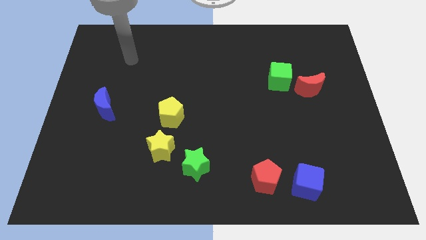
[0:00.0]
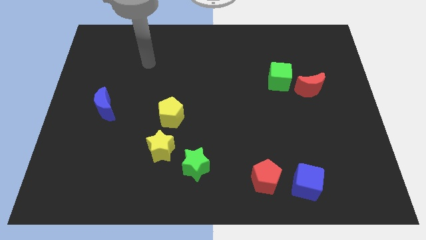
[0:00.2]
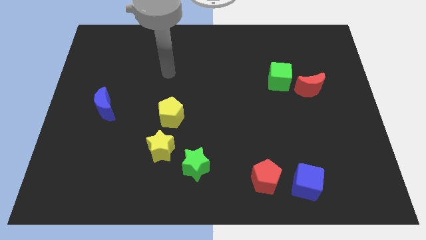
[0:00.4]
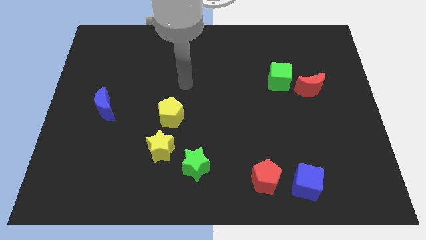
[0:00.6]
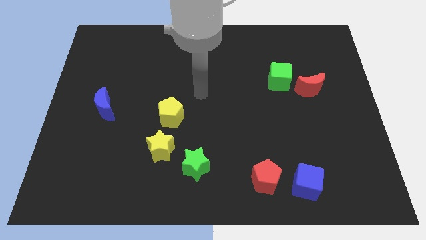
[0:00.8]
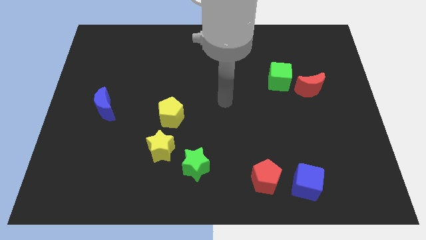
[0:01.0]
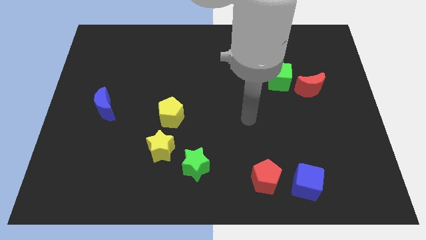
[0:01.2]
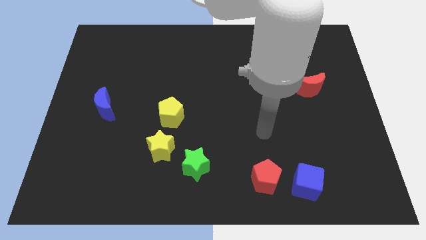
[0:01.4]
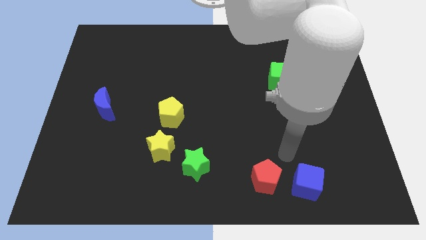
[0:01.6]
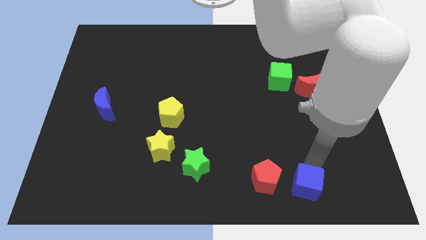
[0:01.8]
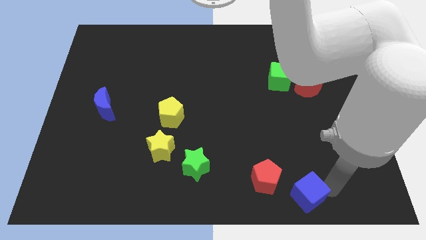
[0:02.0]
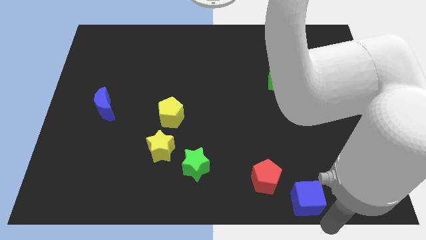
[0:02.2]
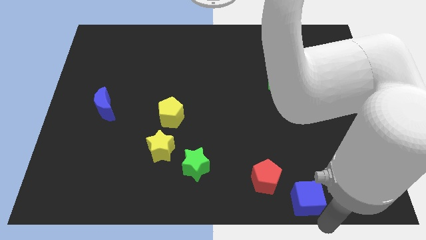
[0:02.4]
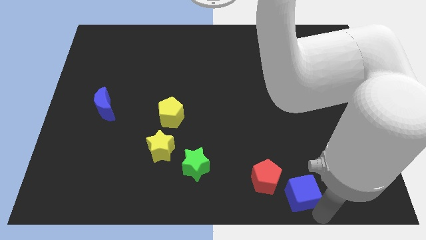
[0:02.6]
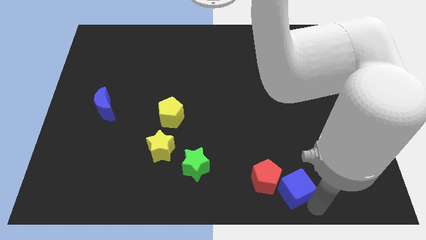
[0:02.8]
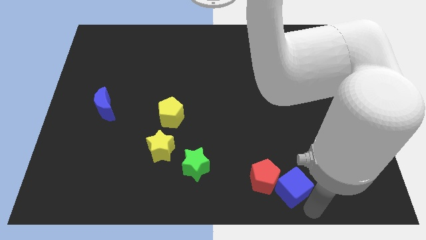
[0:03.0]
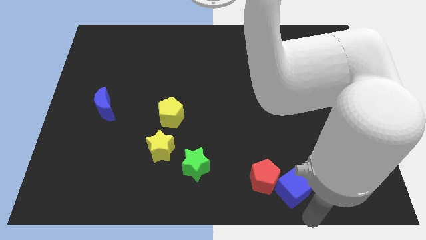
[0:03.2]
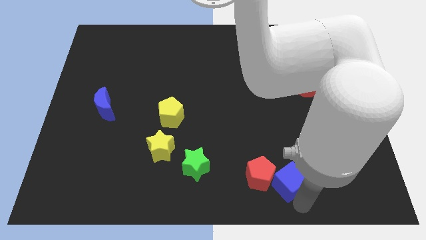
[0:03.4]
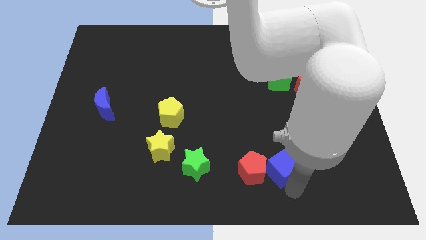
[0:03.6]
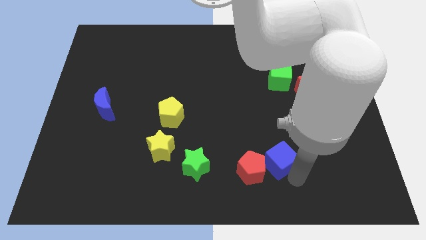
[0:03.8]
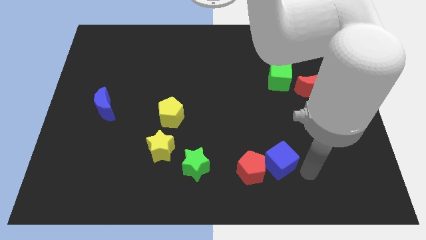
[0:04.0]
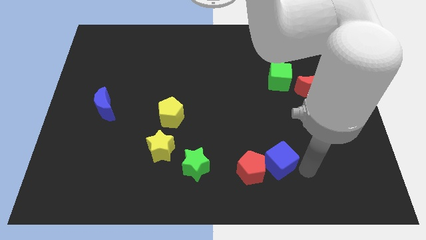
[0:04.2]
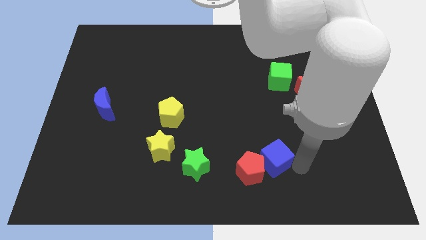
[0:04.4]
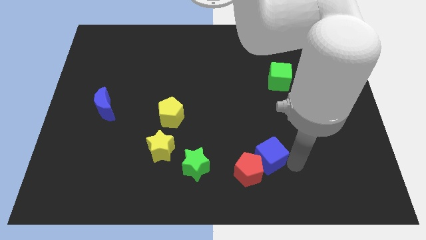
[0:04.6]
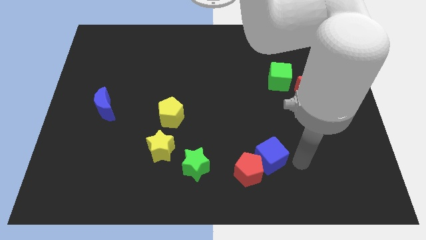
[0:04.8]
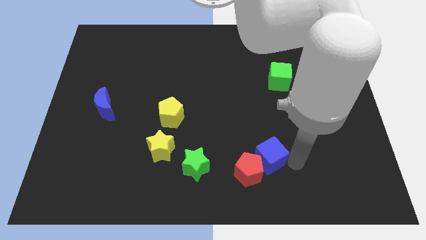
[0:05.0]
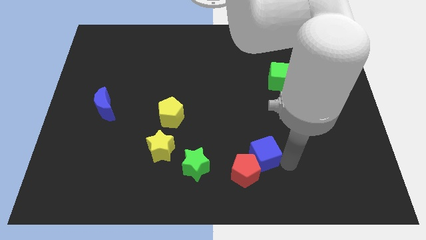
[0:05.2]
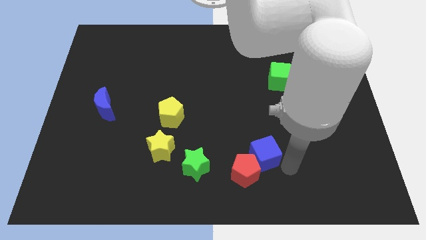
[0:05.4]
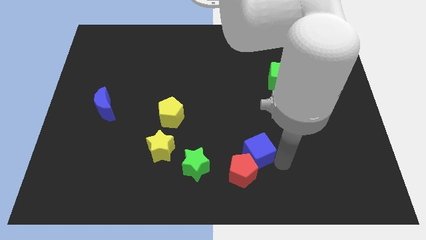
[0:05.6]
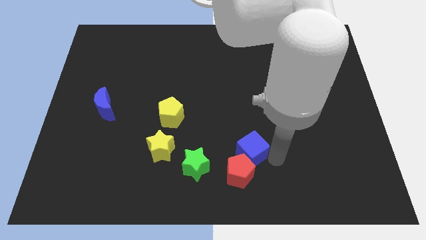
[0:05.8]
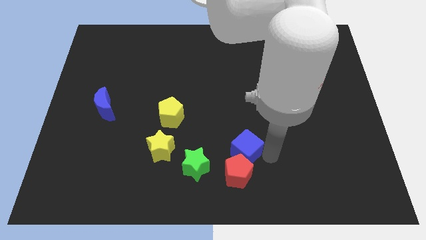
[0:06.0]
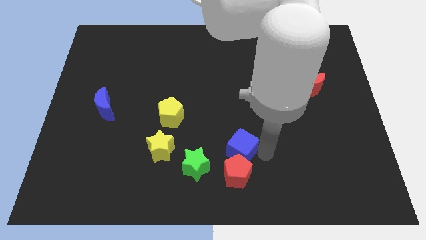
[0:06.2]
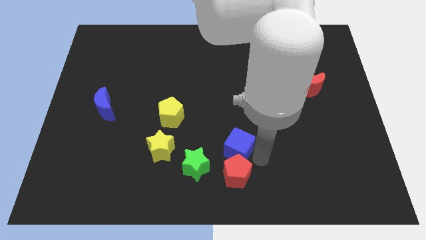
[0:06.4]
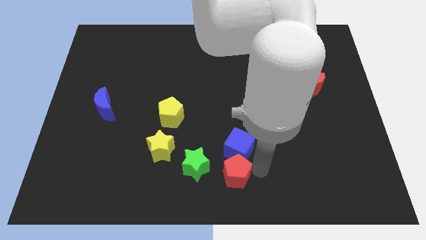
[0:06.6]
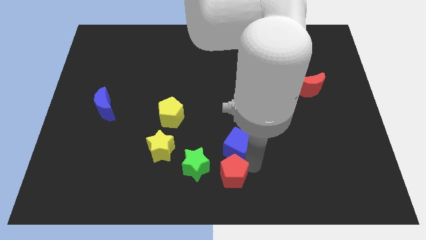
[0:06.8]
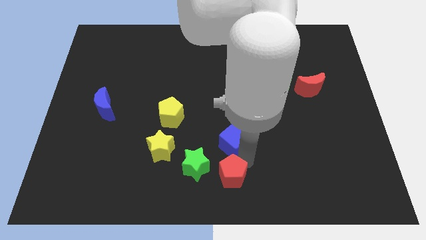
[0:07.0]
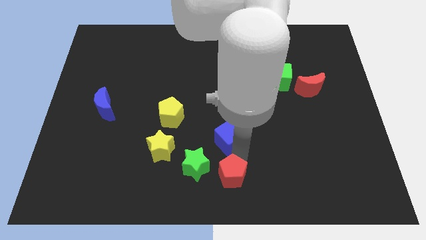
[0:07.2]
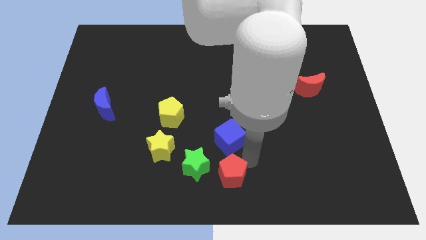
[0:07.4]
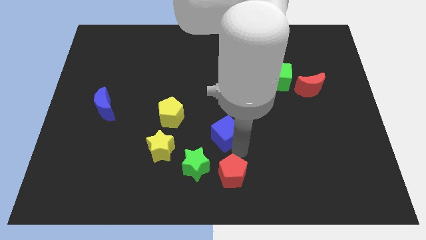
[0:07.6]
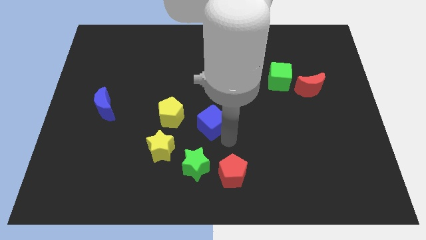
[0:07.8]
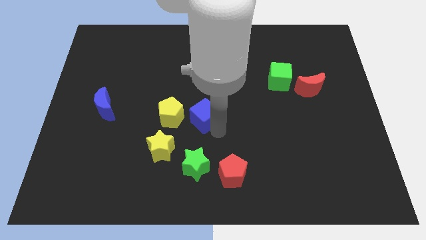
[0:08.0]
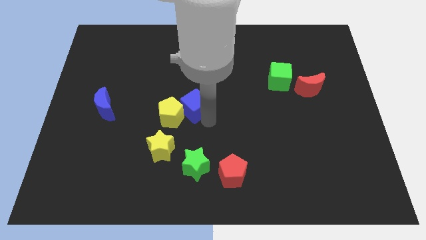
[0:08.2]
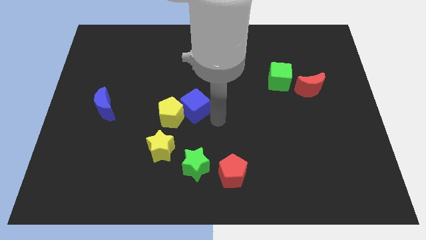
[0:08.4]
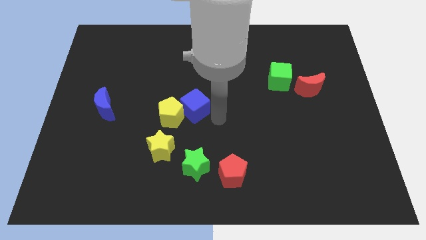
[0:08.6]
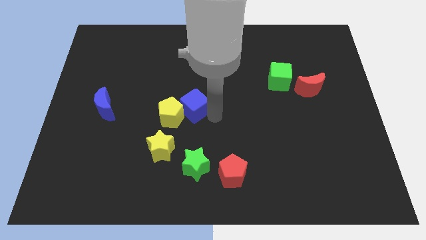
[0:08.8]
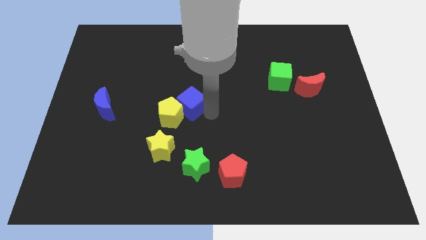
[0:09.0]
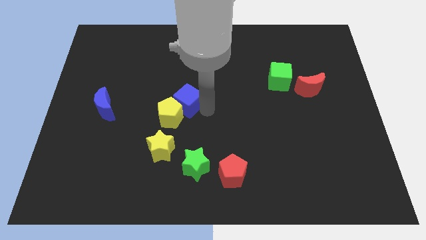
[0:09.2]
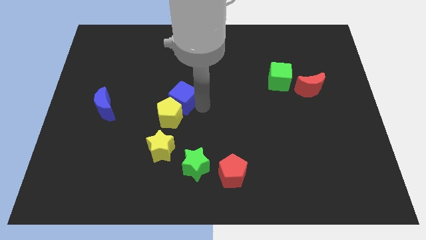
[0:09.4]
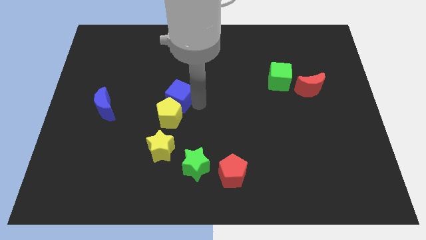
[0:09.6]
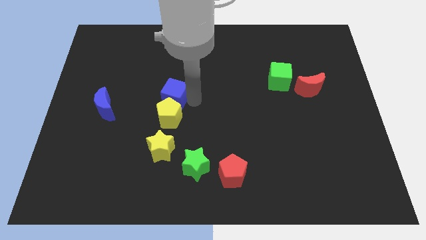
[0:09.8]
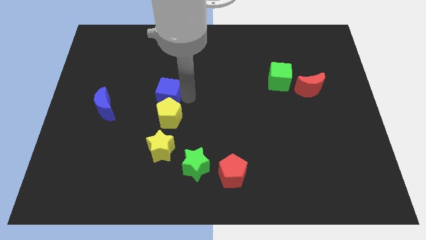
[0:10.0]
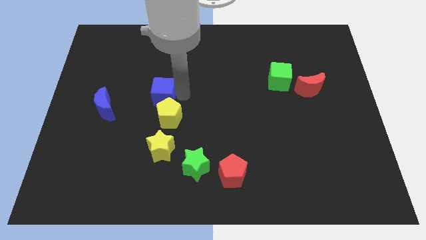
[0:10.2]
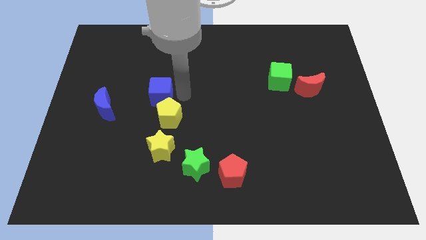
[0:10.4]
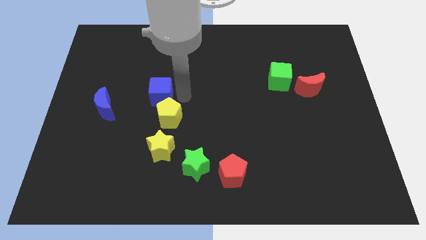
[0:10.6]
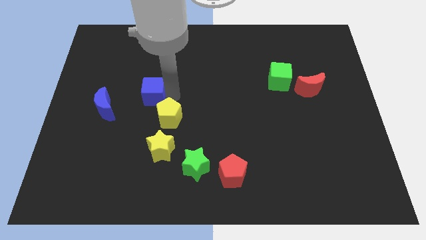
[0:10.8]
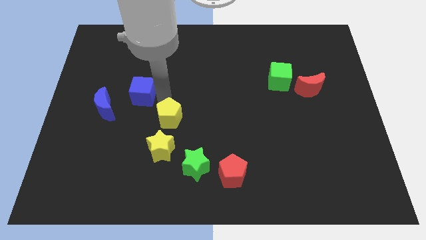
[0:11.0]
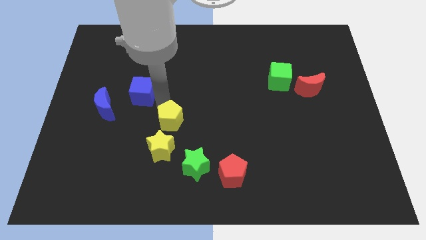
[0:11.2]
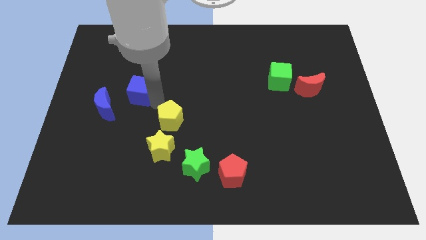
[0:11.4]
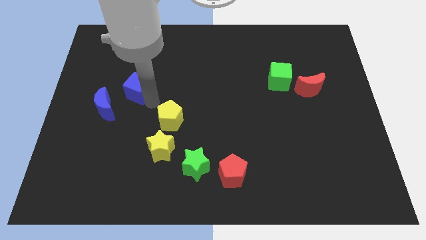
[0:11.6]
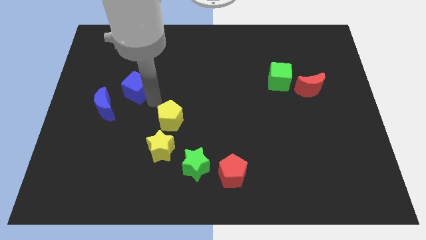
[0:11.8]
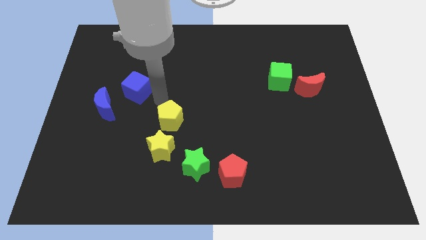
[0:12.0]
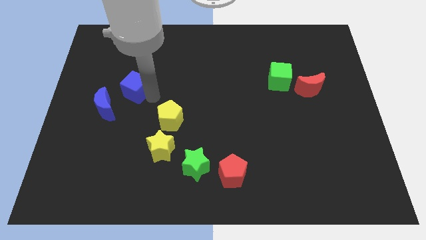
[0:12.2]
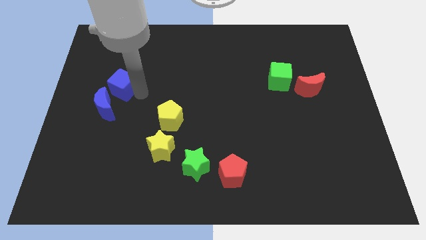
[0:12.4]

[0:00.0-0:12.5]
put the blue cube to the top of the blue moon
